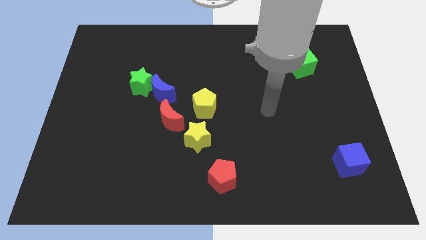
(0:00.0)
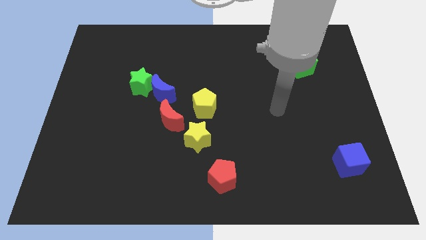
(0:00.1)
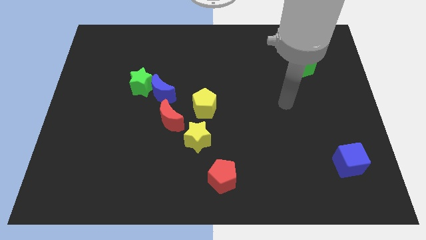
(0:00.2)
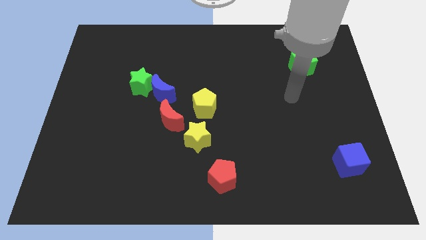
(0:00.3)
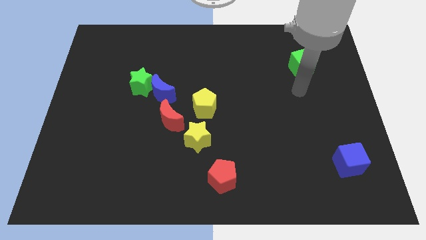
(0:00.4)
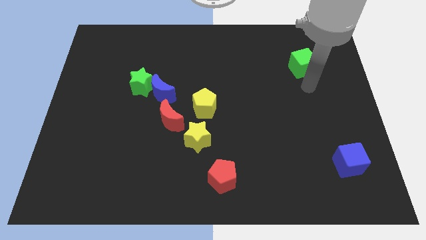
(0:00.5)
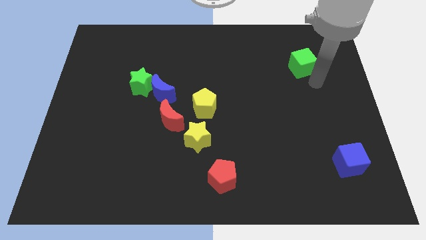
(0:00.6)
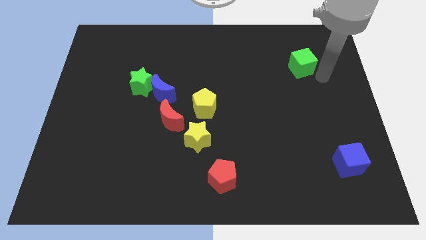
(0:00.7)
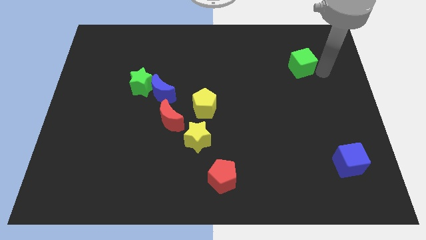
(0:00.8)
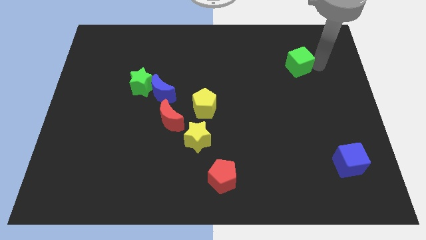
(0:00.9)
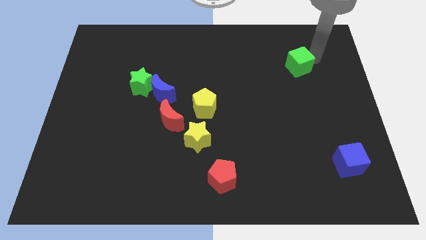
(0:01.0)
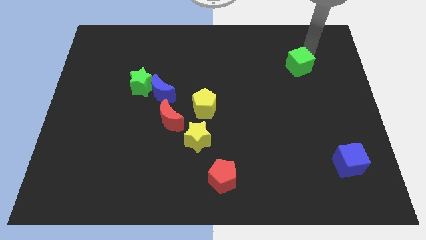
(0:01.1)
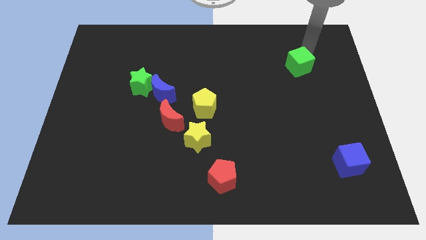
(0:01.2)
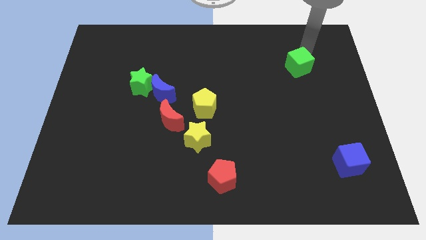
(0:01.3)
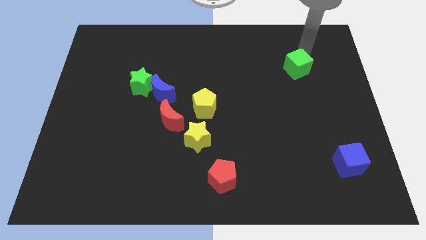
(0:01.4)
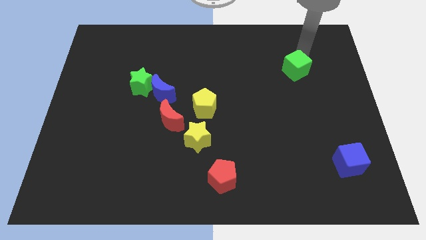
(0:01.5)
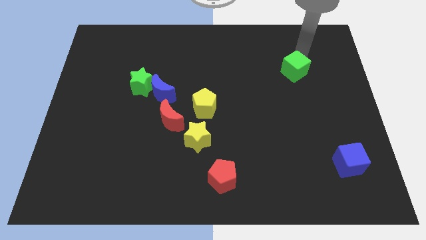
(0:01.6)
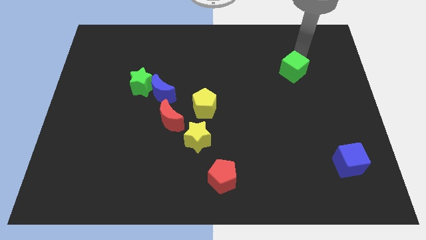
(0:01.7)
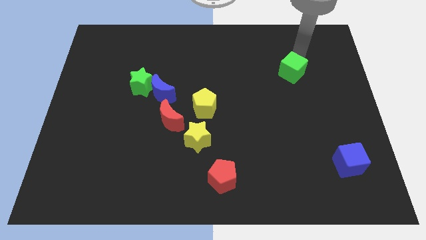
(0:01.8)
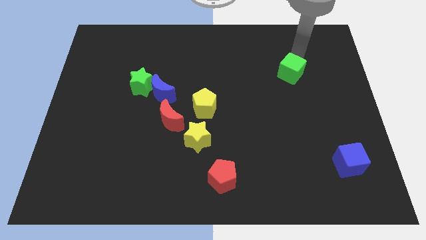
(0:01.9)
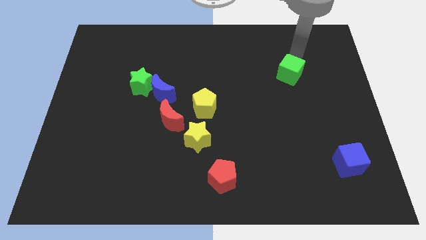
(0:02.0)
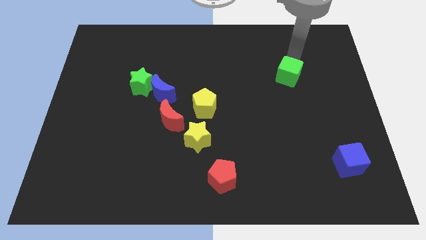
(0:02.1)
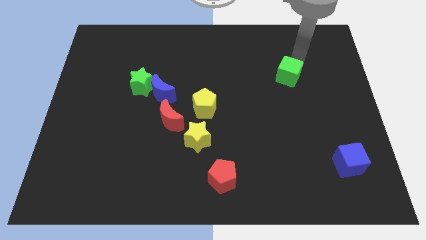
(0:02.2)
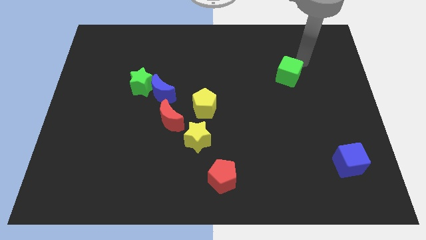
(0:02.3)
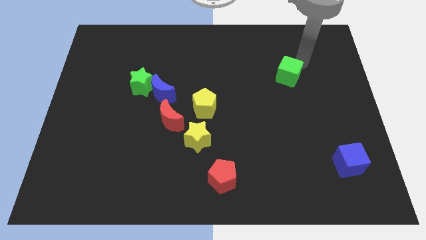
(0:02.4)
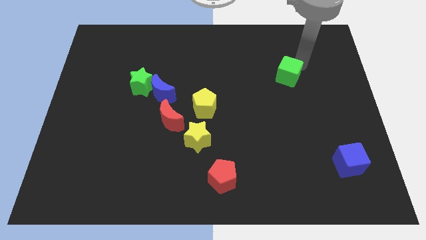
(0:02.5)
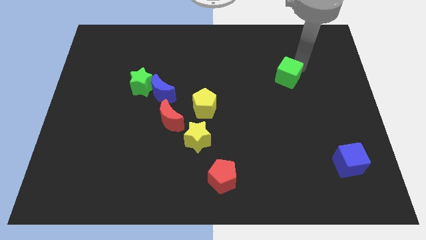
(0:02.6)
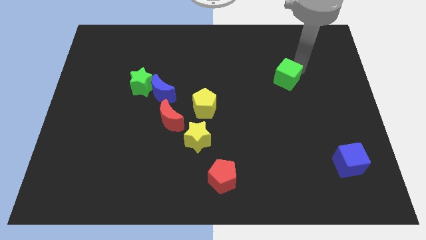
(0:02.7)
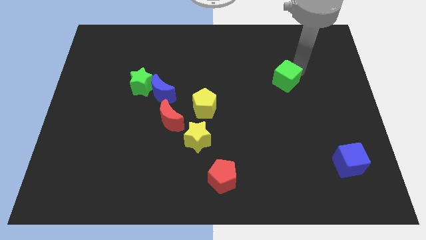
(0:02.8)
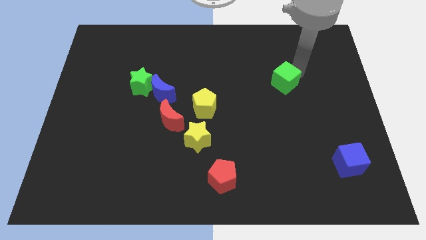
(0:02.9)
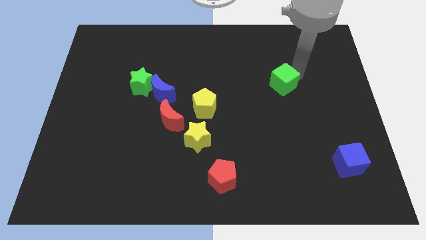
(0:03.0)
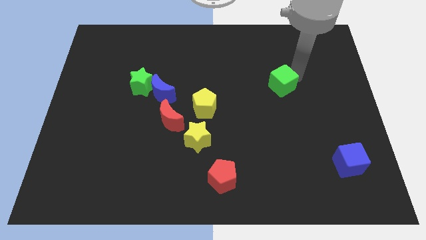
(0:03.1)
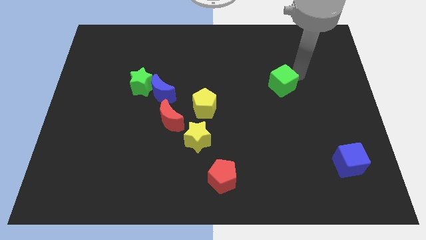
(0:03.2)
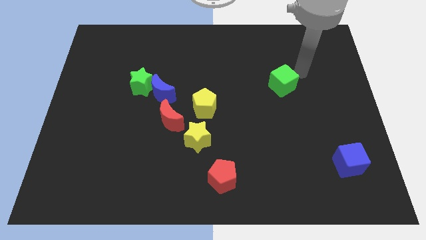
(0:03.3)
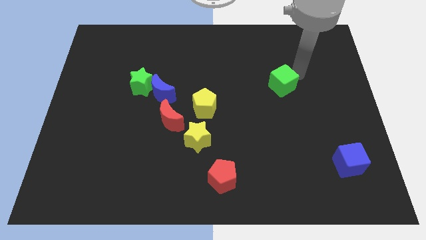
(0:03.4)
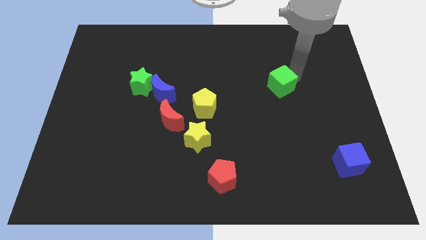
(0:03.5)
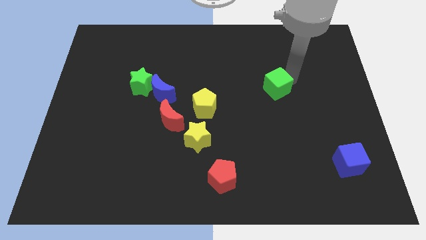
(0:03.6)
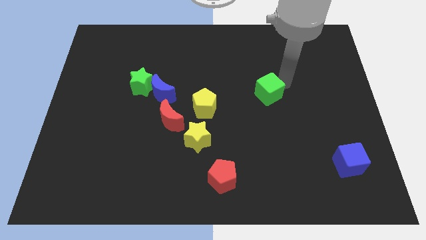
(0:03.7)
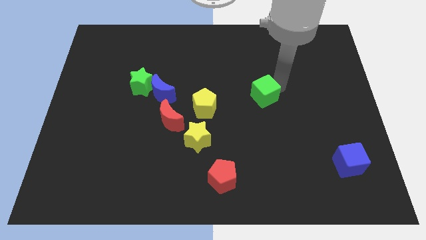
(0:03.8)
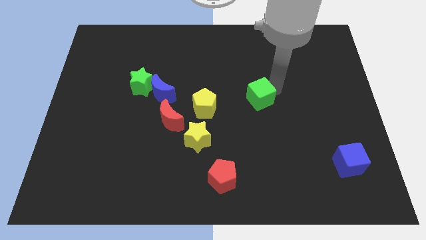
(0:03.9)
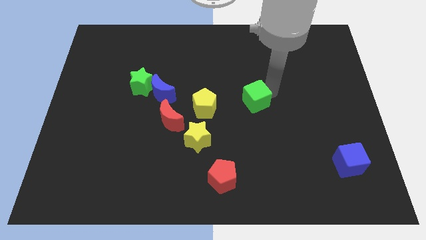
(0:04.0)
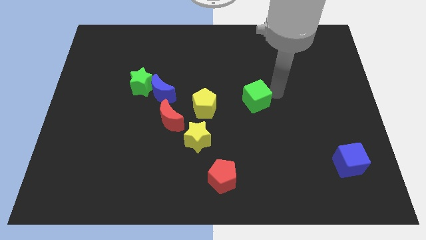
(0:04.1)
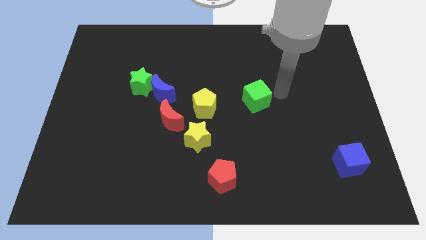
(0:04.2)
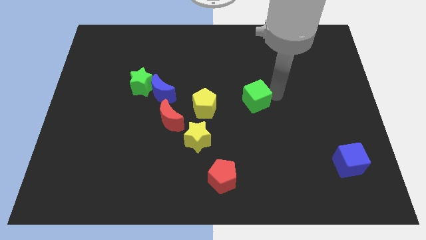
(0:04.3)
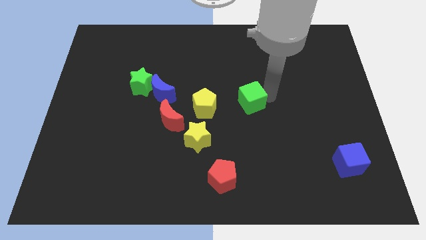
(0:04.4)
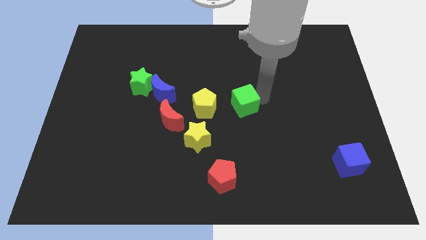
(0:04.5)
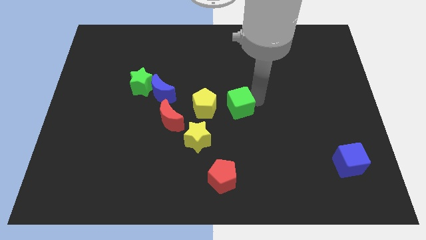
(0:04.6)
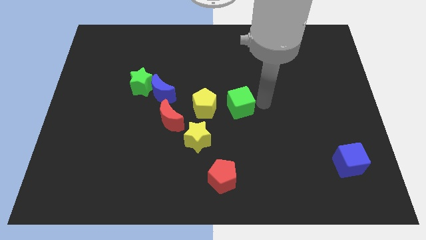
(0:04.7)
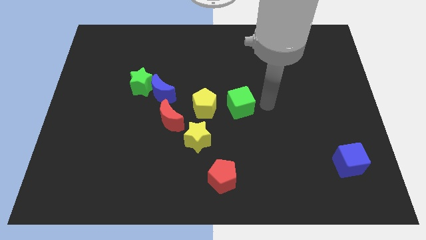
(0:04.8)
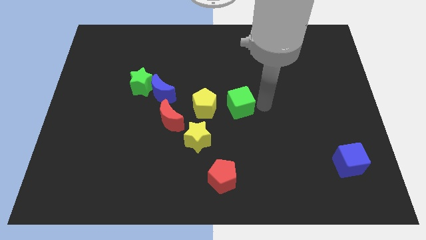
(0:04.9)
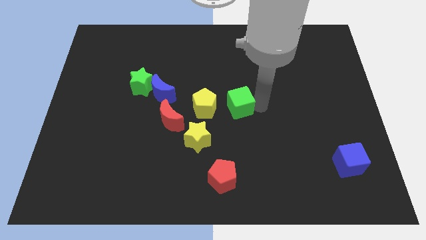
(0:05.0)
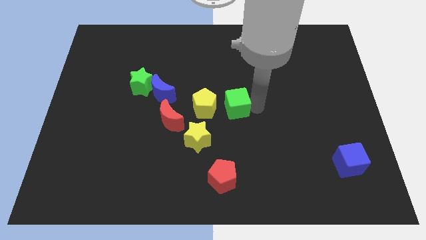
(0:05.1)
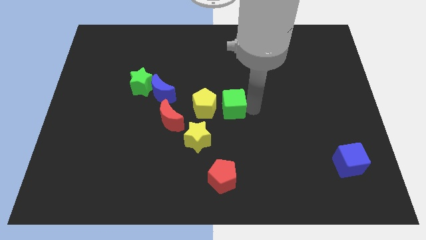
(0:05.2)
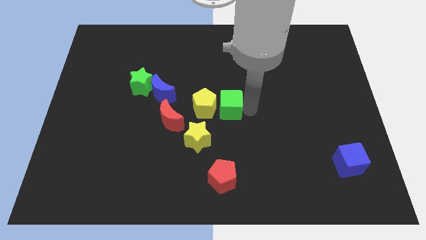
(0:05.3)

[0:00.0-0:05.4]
put the green cube to the yellow pentagon

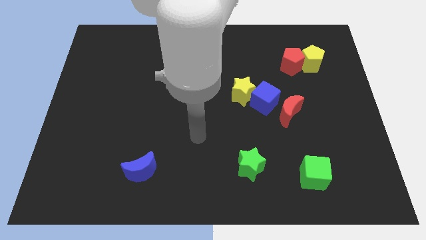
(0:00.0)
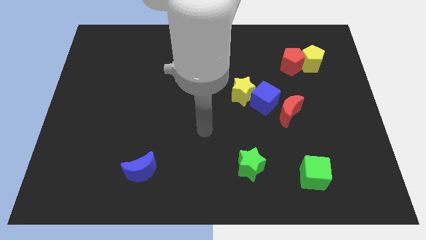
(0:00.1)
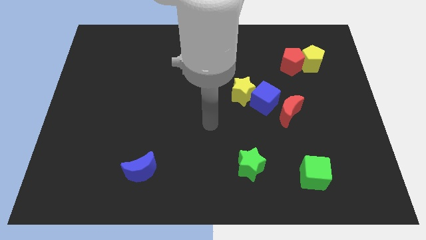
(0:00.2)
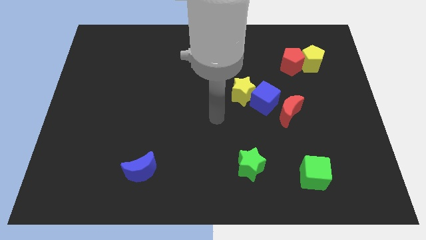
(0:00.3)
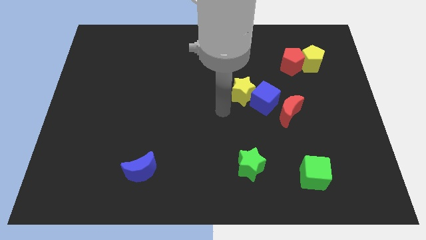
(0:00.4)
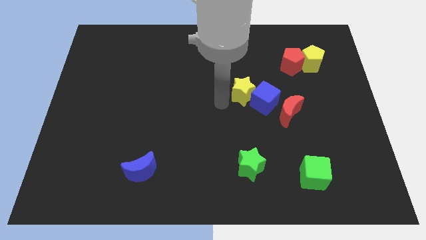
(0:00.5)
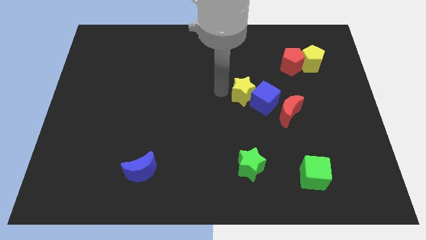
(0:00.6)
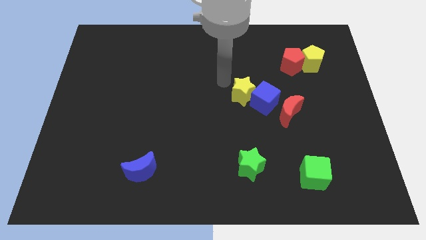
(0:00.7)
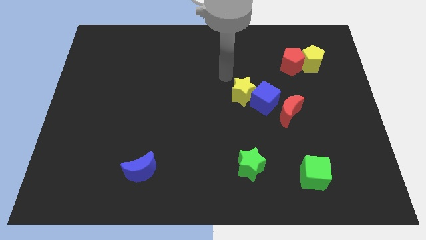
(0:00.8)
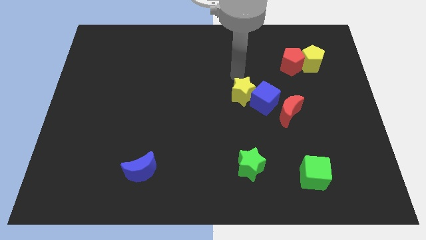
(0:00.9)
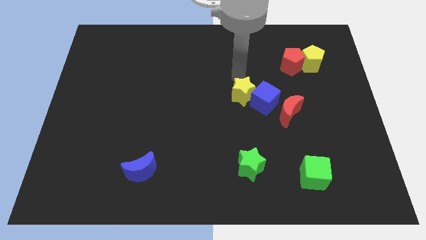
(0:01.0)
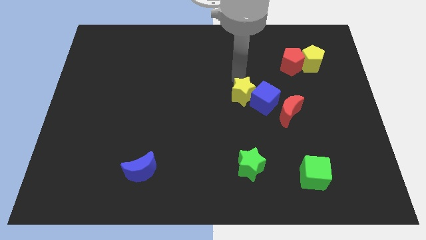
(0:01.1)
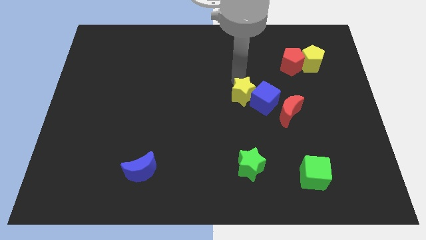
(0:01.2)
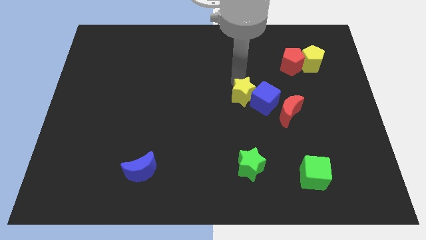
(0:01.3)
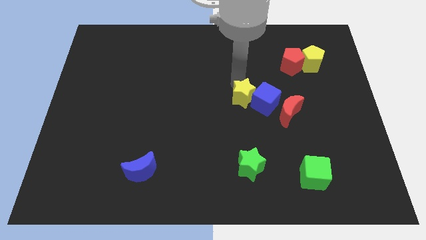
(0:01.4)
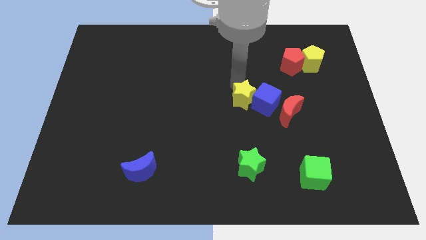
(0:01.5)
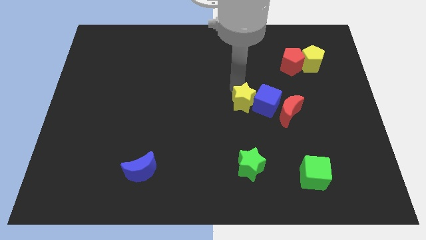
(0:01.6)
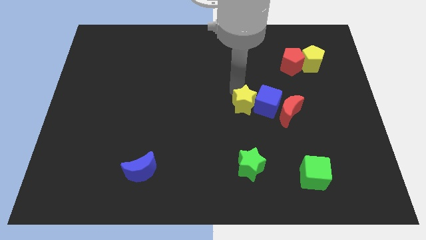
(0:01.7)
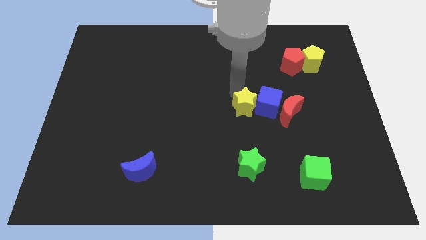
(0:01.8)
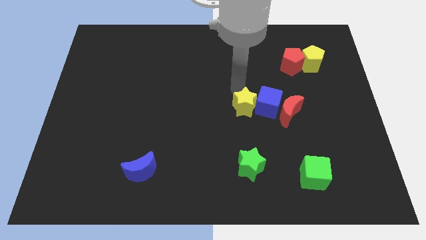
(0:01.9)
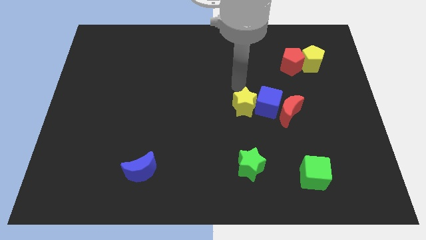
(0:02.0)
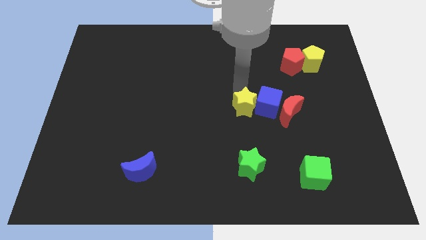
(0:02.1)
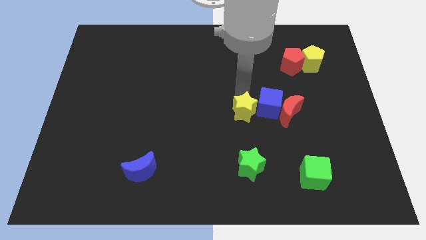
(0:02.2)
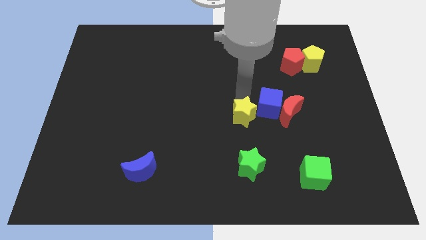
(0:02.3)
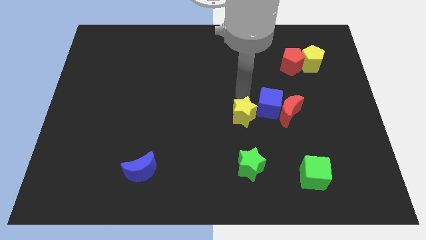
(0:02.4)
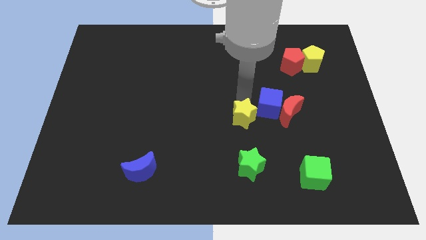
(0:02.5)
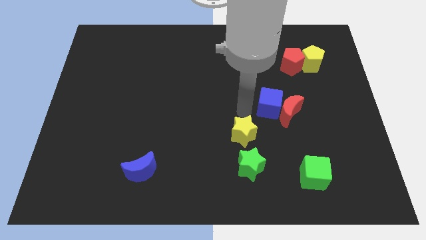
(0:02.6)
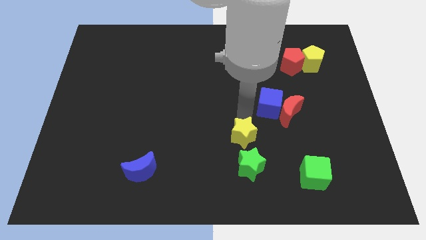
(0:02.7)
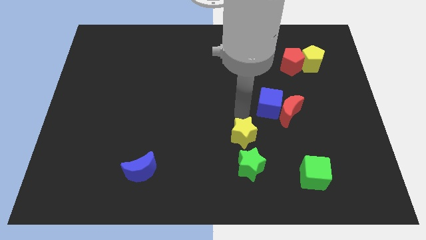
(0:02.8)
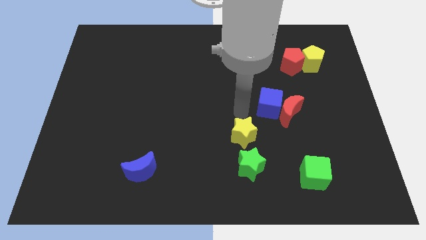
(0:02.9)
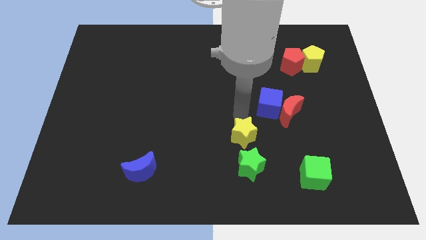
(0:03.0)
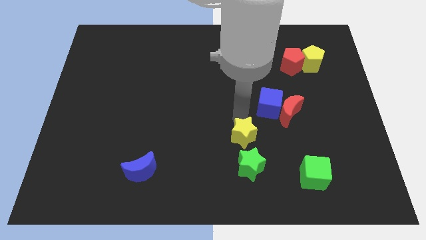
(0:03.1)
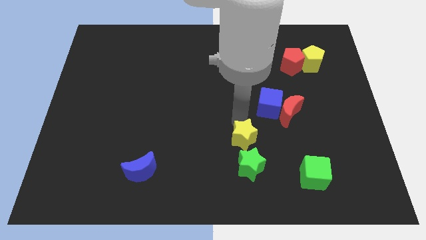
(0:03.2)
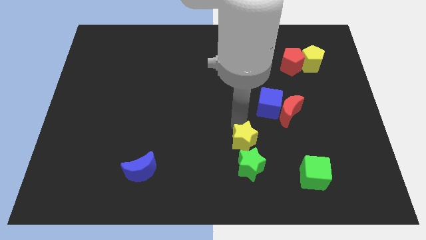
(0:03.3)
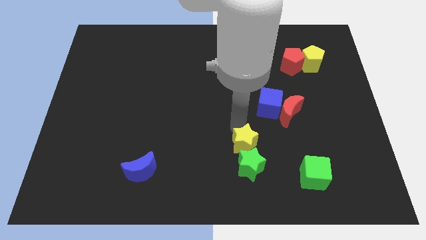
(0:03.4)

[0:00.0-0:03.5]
move the yellow star next to the green star
